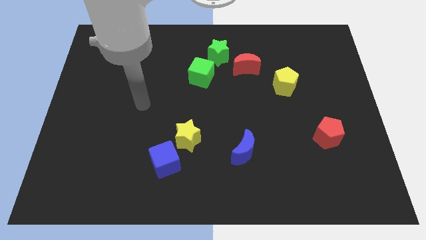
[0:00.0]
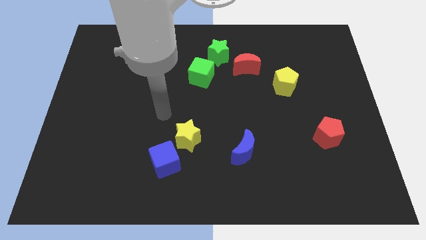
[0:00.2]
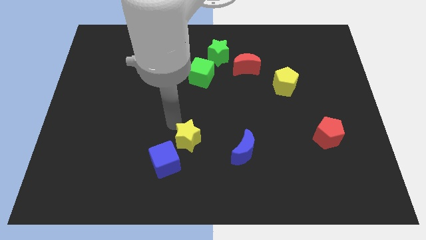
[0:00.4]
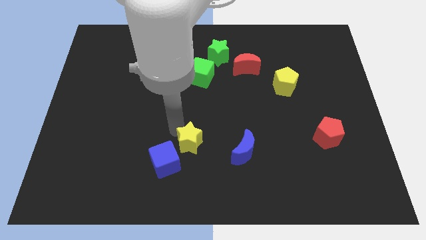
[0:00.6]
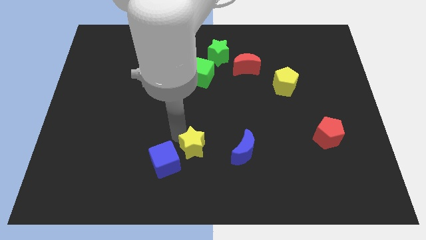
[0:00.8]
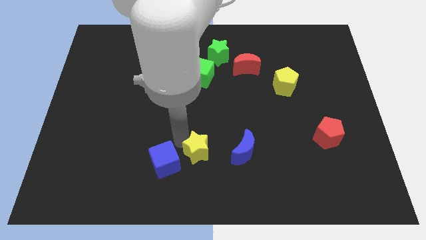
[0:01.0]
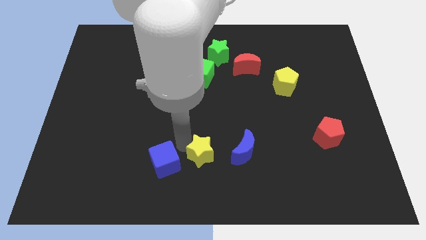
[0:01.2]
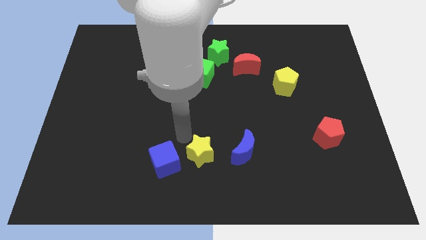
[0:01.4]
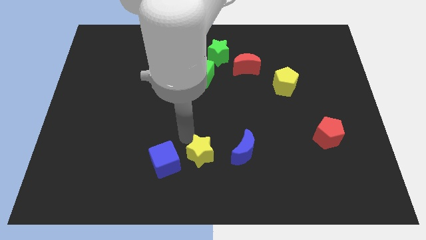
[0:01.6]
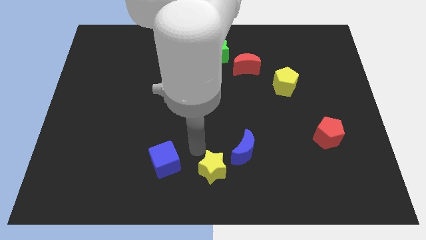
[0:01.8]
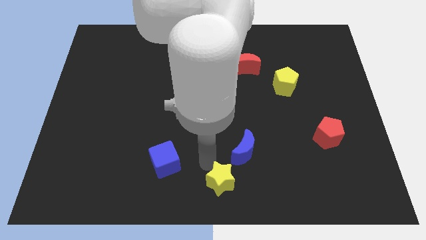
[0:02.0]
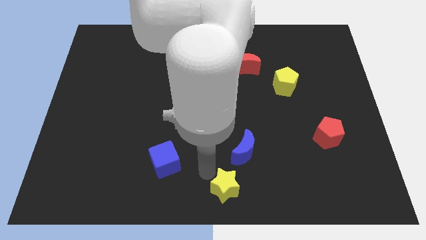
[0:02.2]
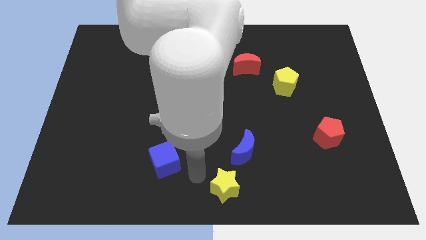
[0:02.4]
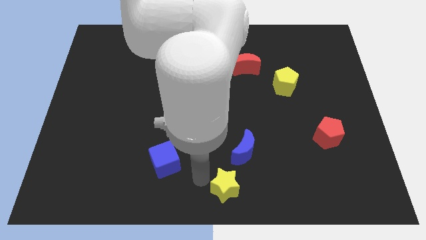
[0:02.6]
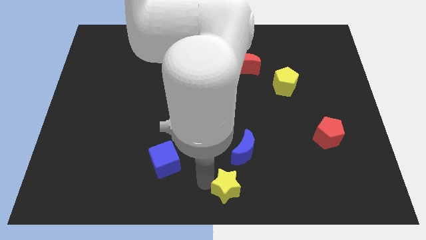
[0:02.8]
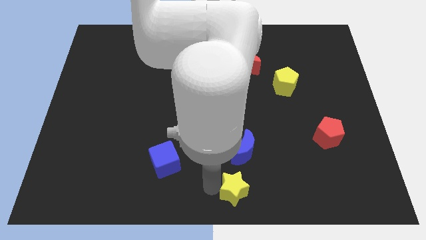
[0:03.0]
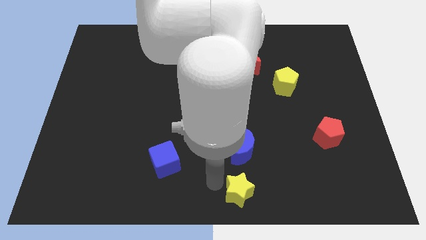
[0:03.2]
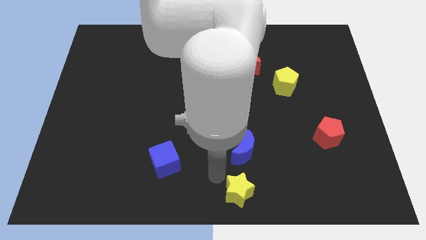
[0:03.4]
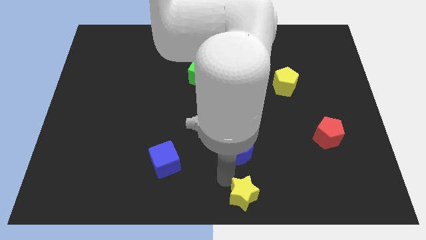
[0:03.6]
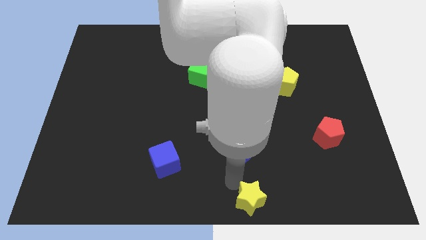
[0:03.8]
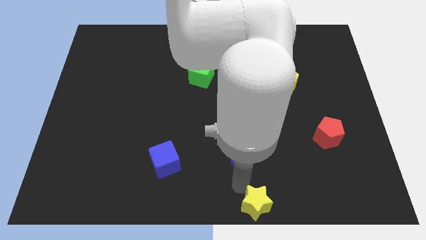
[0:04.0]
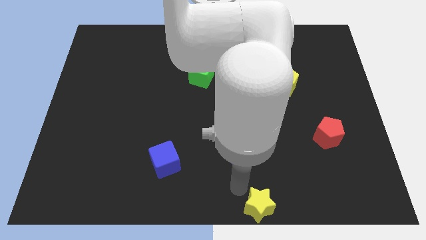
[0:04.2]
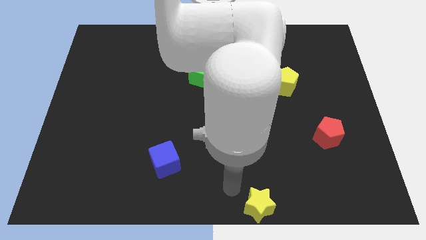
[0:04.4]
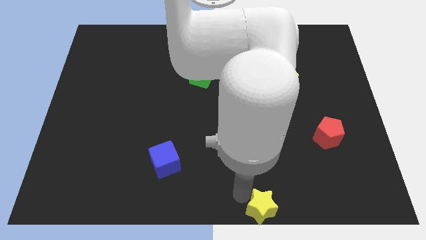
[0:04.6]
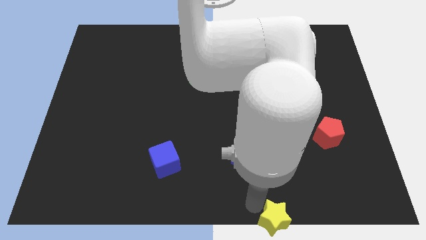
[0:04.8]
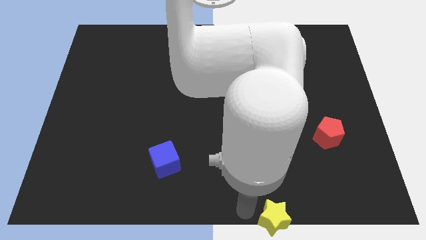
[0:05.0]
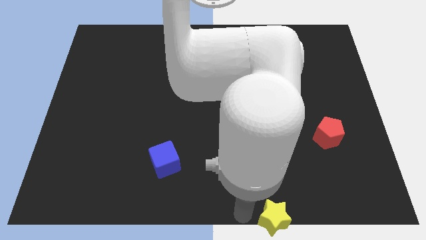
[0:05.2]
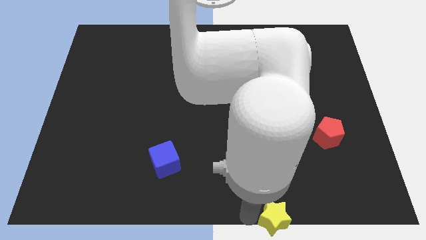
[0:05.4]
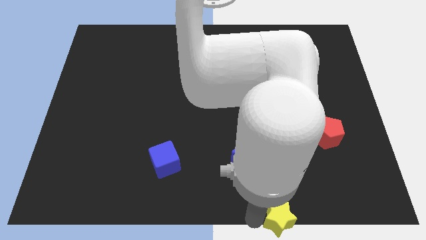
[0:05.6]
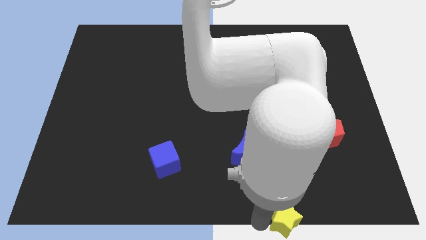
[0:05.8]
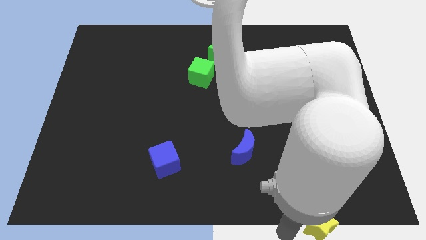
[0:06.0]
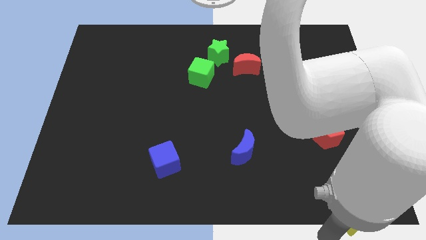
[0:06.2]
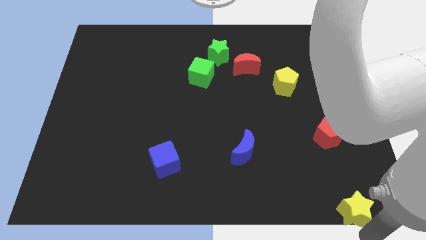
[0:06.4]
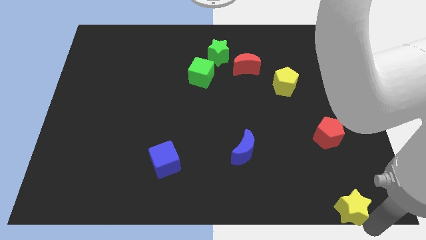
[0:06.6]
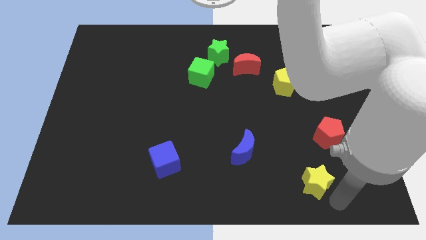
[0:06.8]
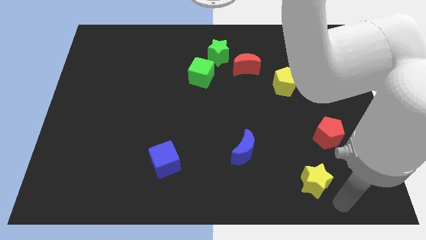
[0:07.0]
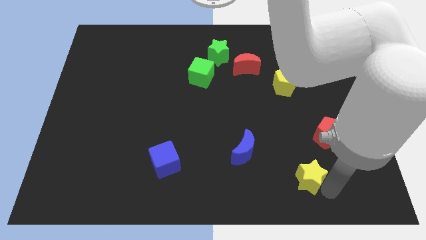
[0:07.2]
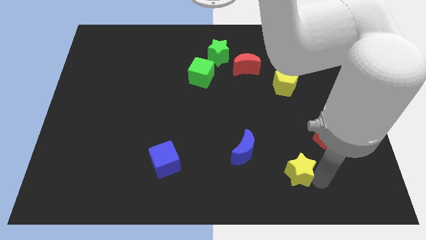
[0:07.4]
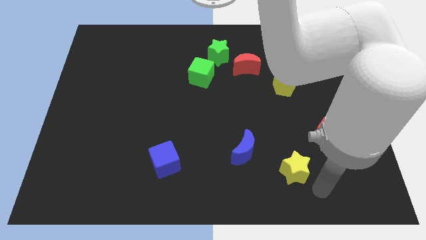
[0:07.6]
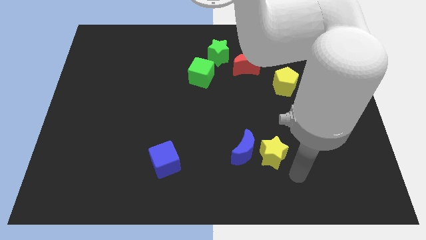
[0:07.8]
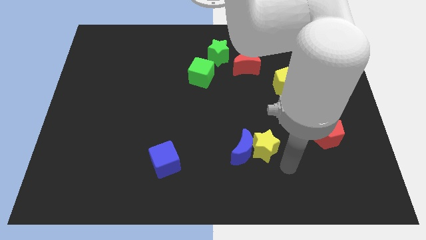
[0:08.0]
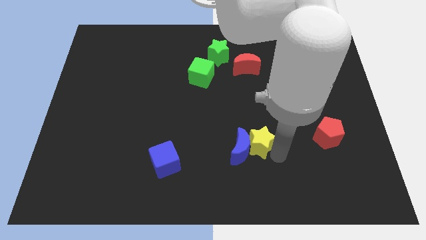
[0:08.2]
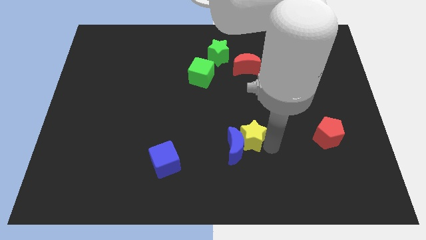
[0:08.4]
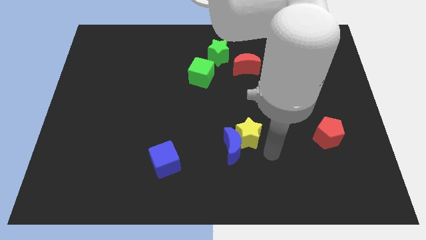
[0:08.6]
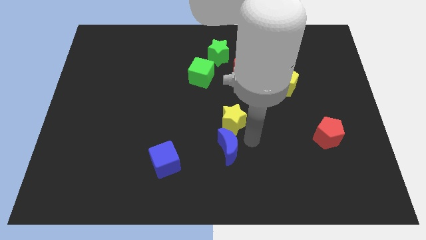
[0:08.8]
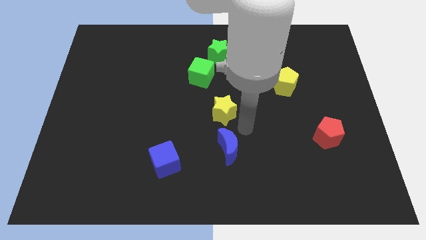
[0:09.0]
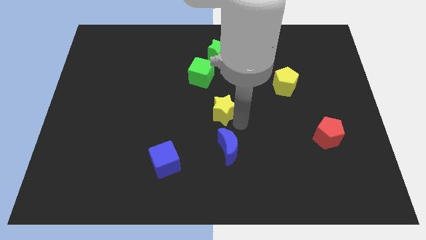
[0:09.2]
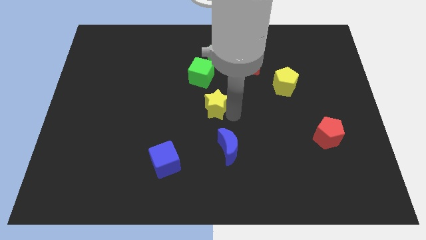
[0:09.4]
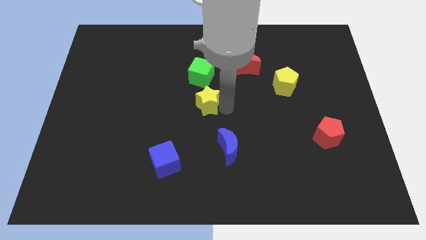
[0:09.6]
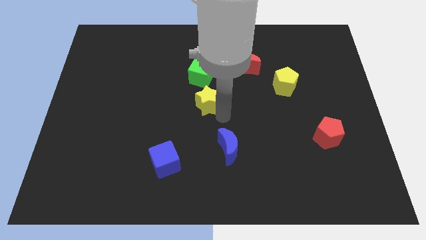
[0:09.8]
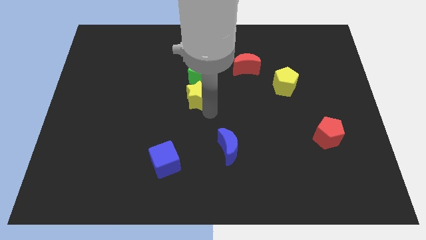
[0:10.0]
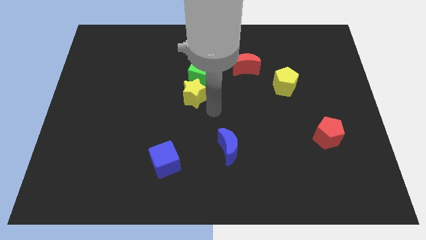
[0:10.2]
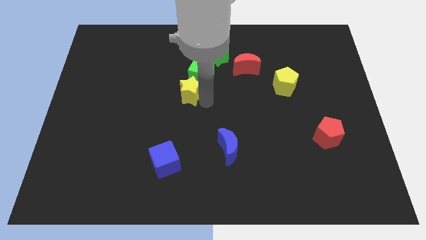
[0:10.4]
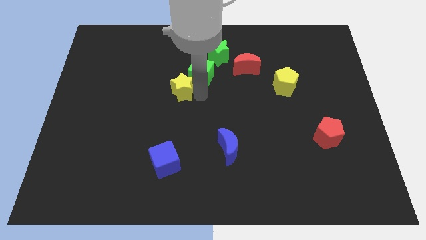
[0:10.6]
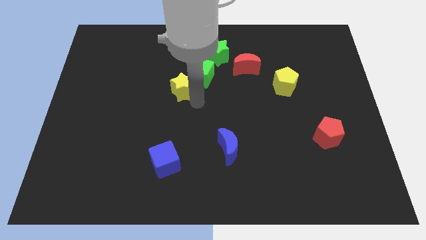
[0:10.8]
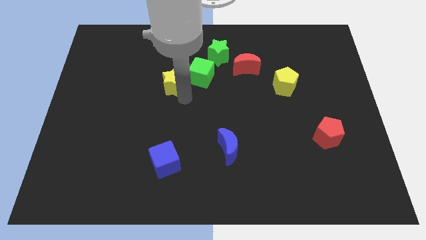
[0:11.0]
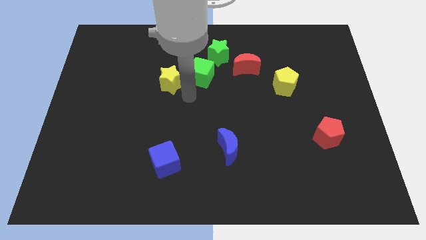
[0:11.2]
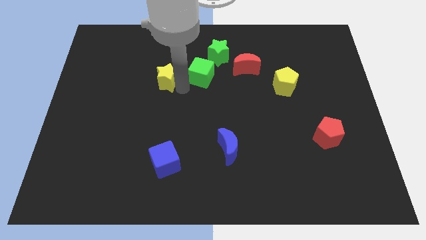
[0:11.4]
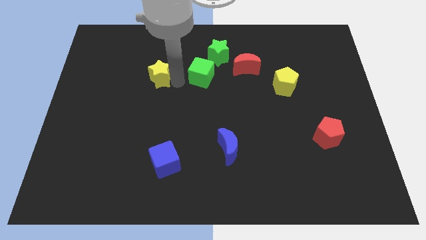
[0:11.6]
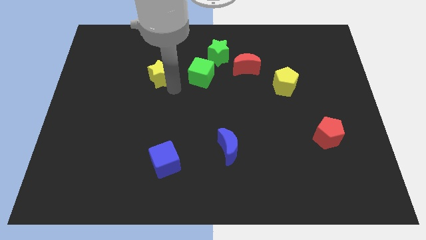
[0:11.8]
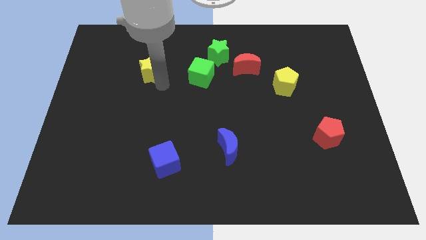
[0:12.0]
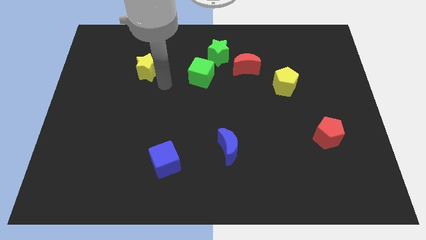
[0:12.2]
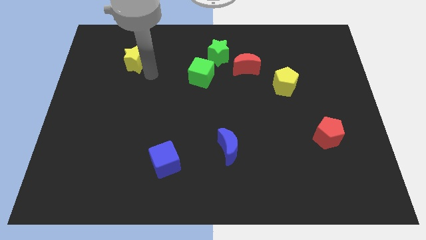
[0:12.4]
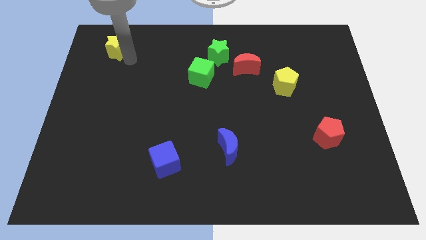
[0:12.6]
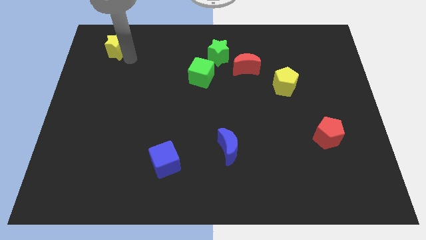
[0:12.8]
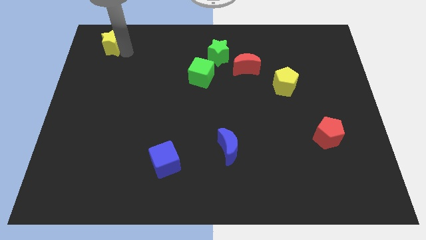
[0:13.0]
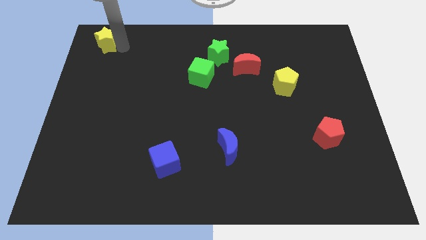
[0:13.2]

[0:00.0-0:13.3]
move the yellow star to the top left
